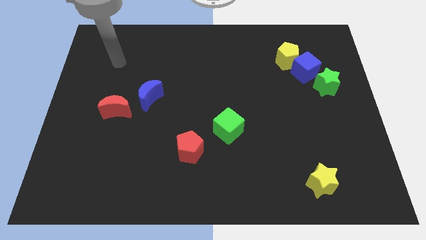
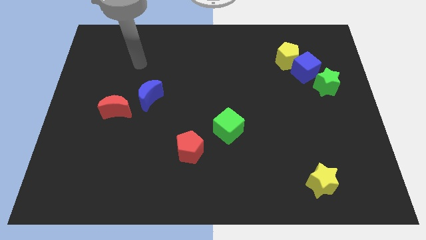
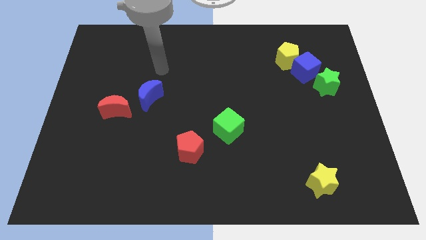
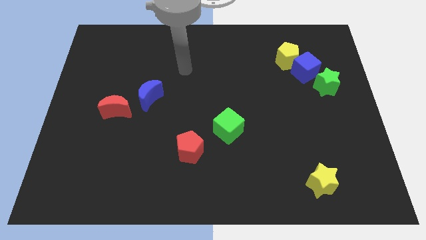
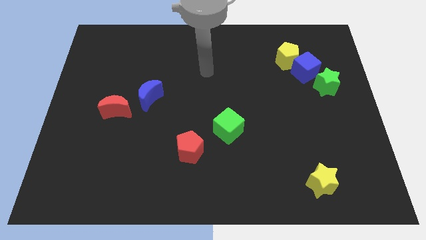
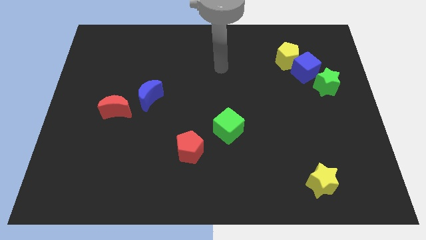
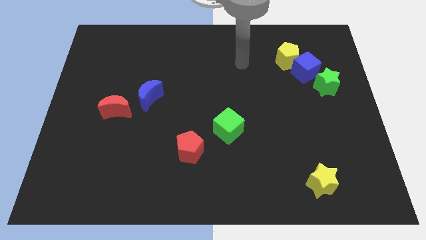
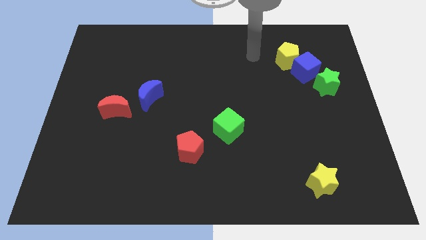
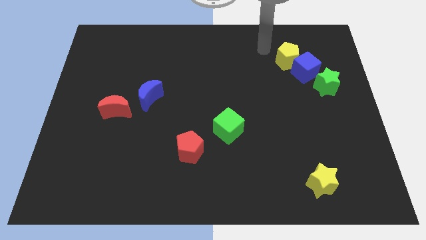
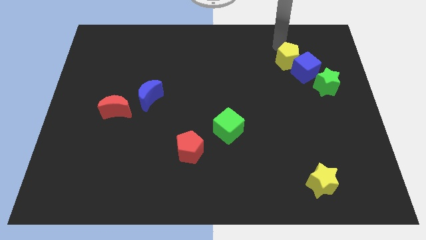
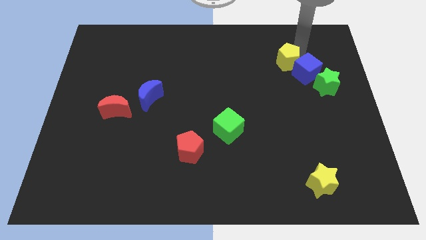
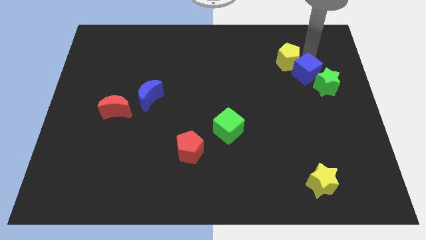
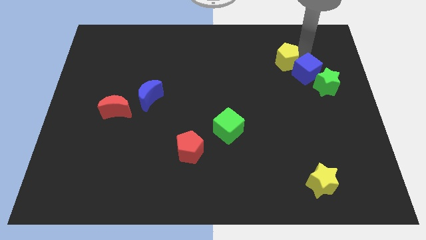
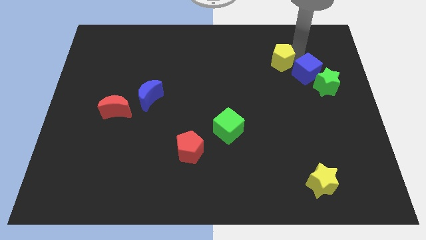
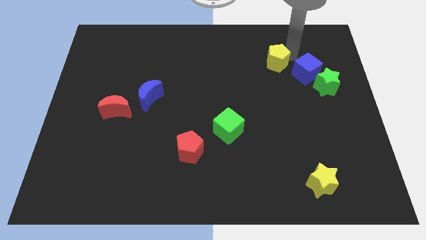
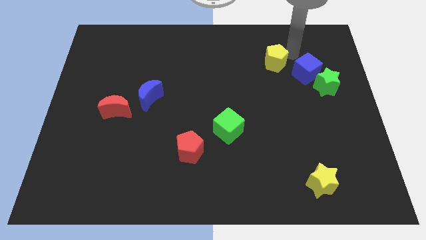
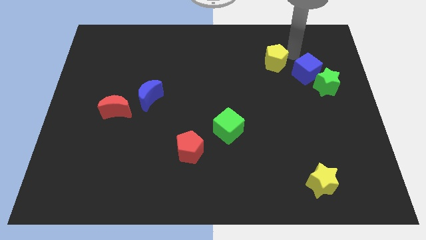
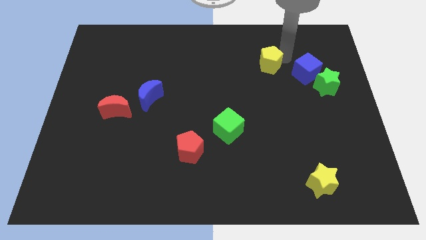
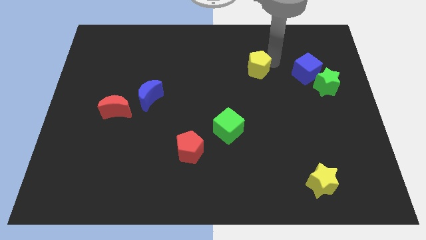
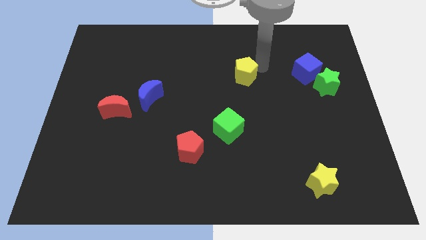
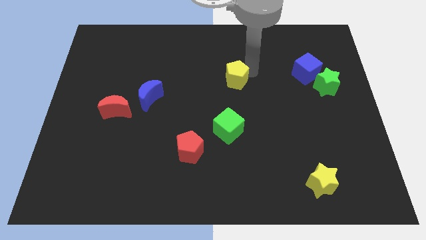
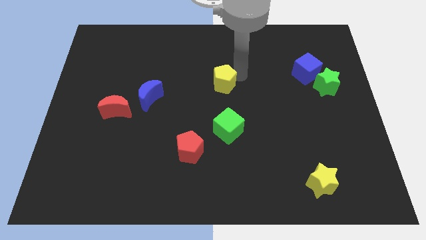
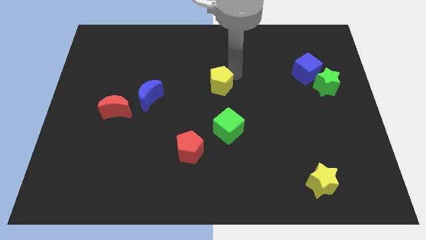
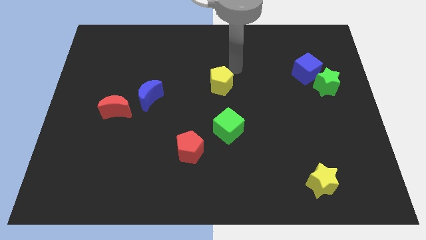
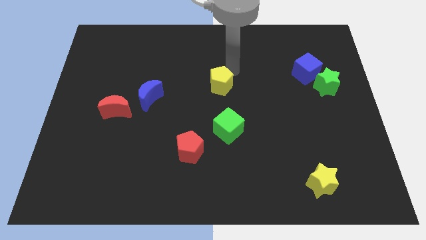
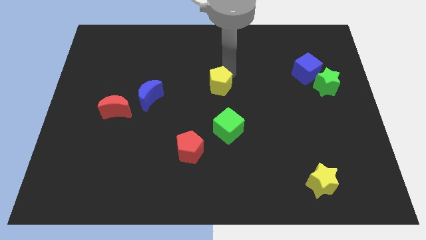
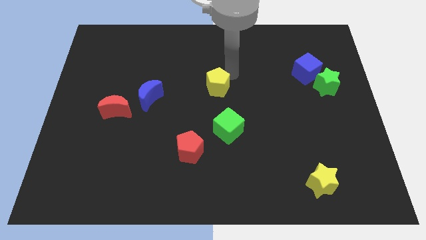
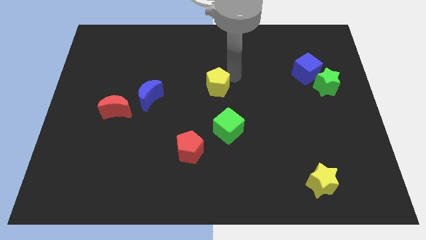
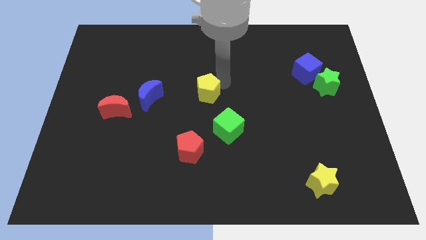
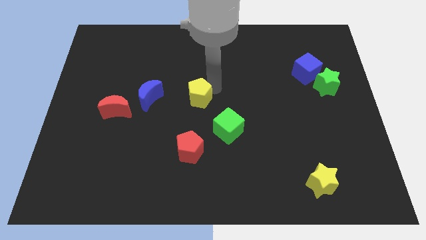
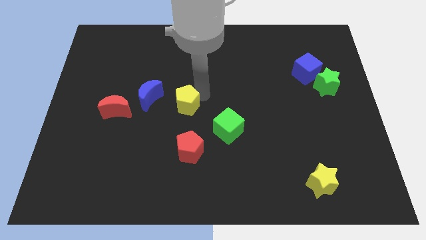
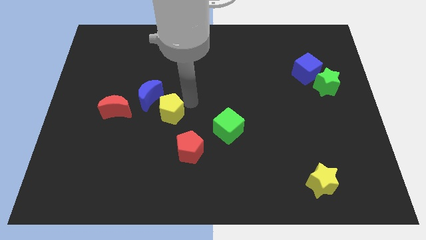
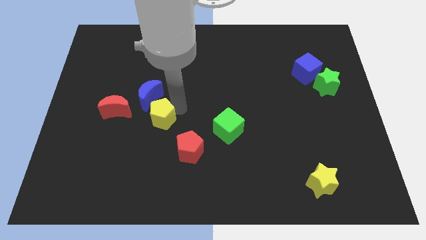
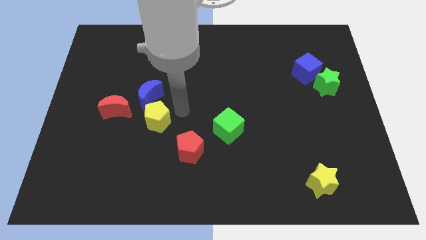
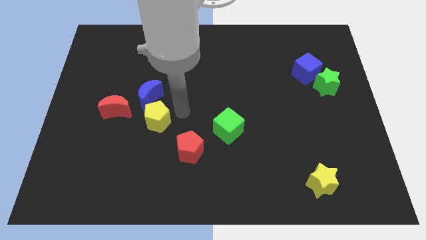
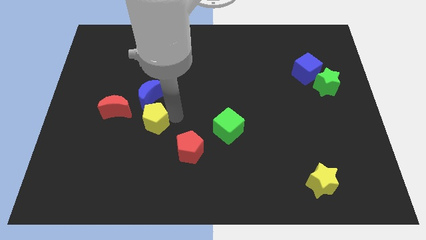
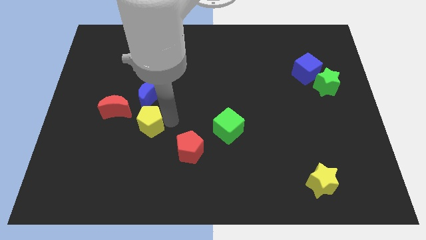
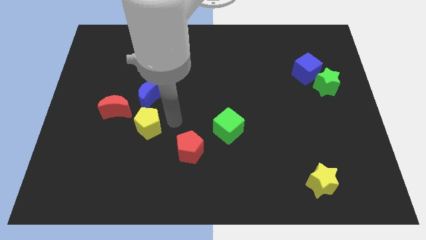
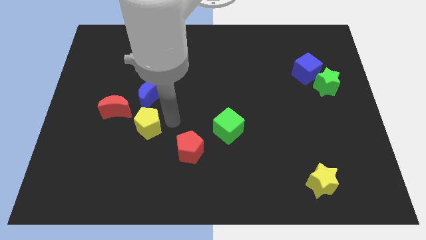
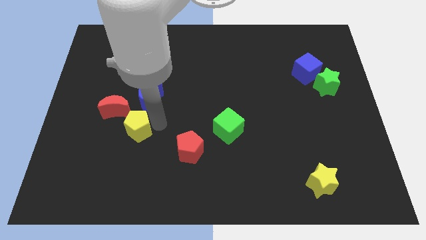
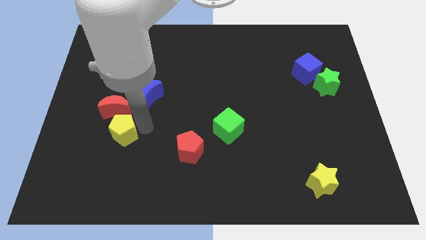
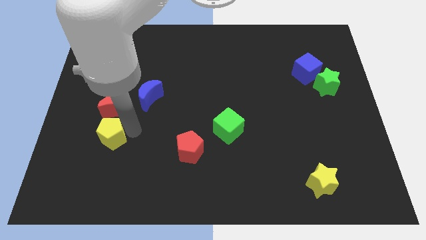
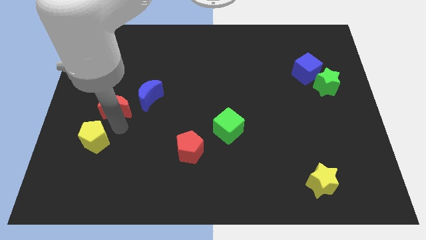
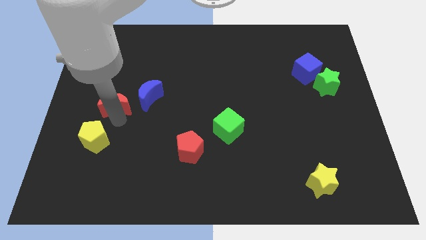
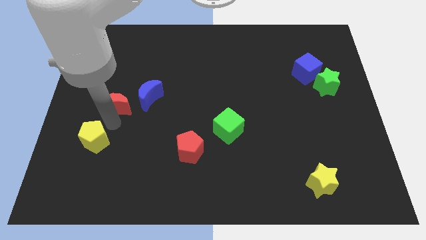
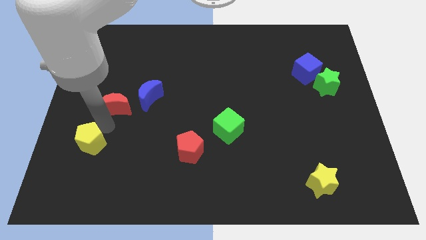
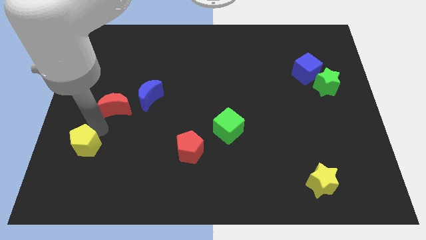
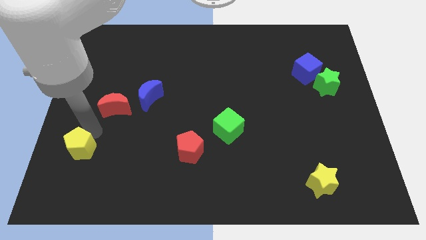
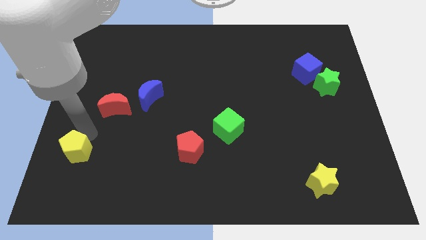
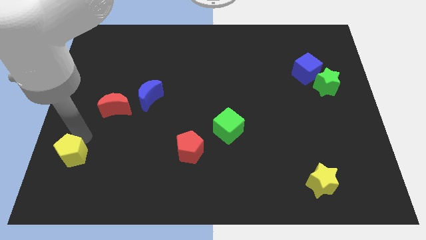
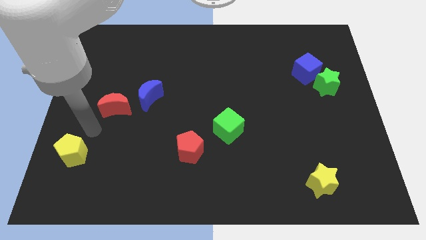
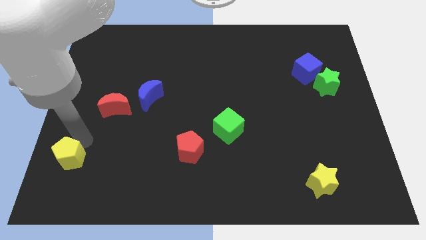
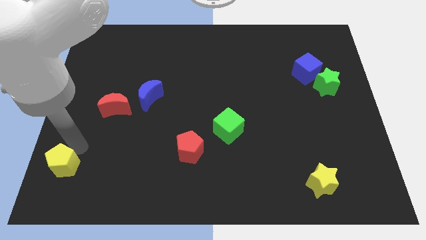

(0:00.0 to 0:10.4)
slide the yellow pentagon to the bottom left corner

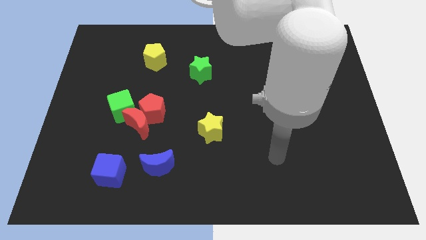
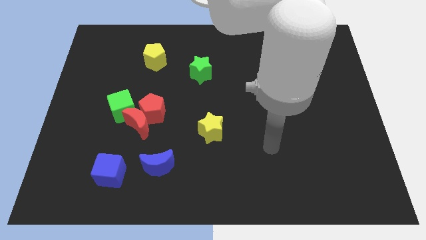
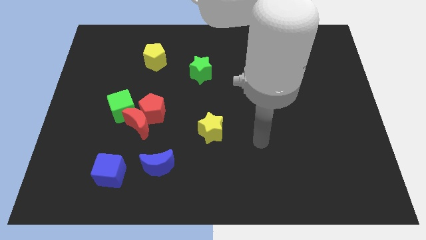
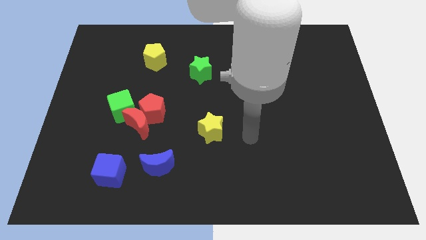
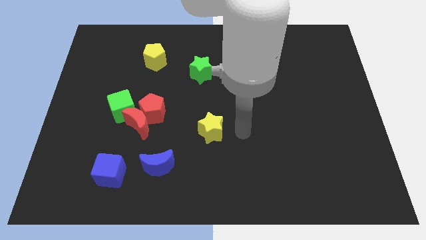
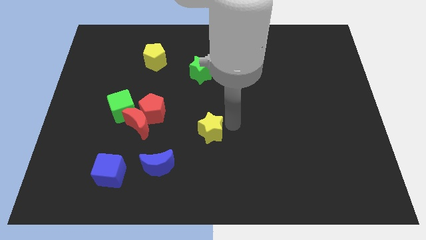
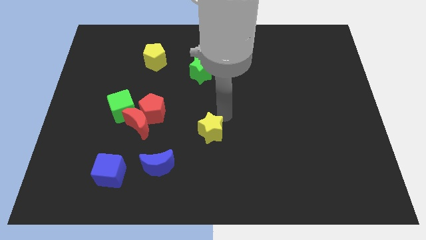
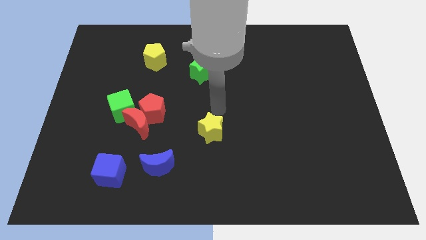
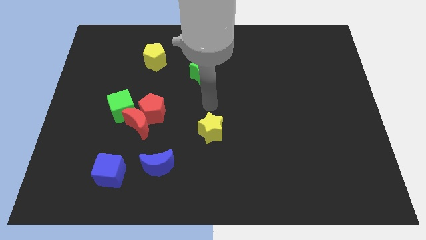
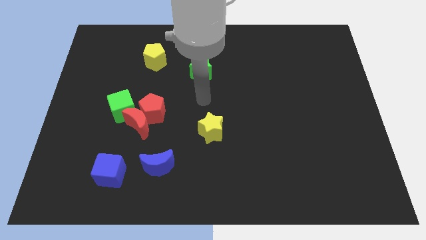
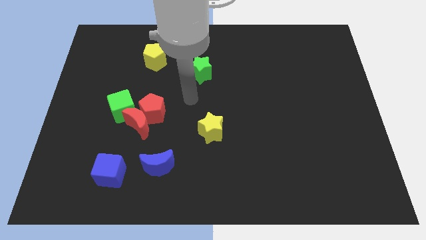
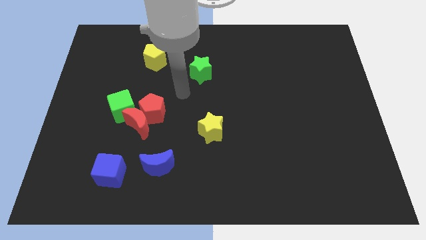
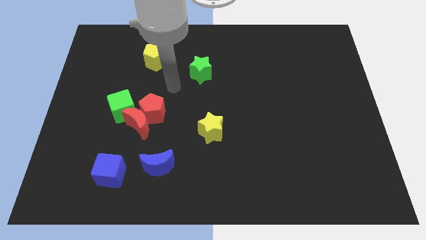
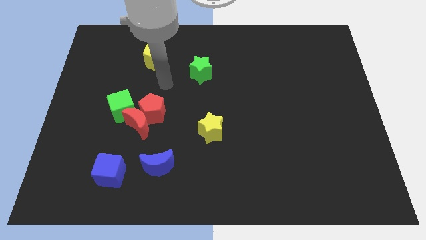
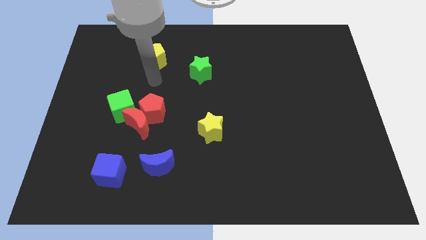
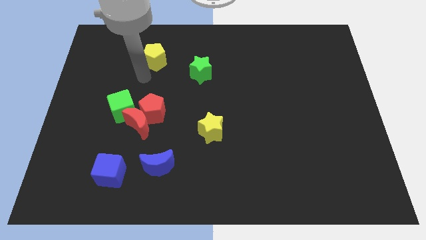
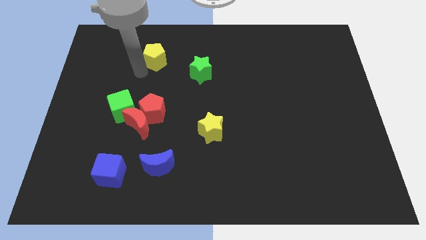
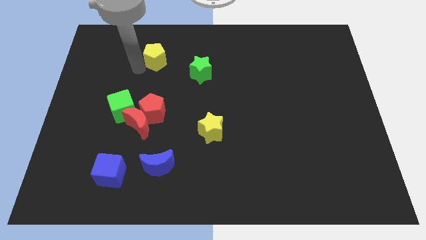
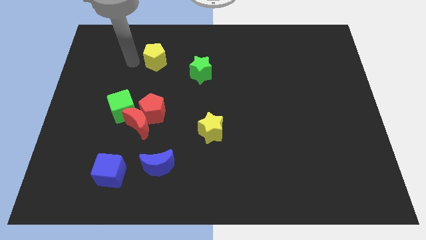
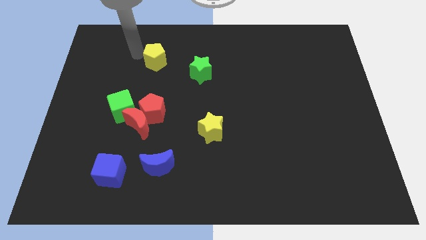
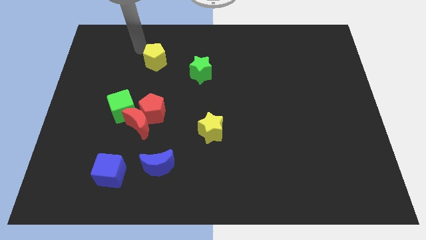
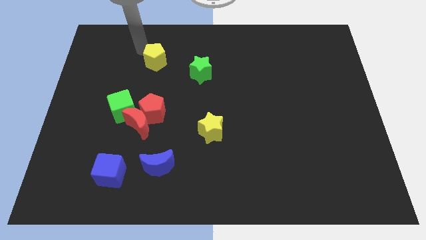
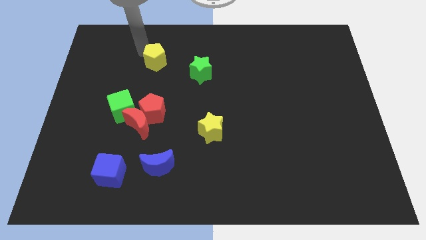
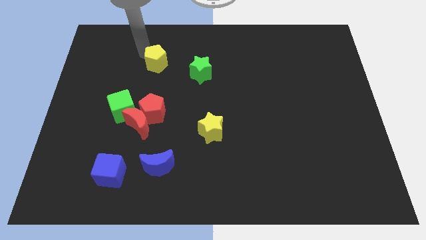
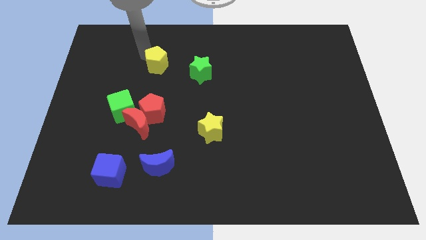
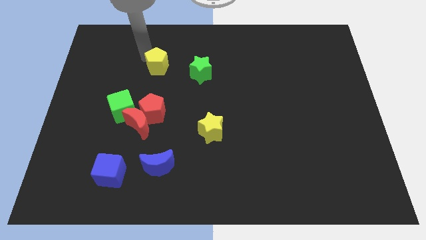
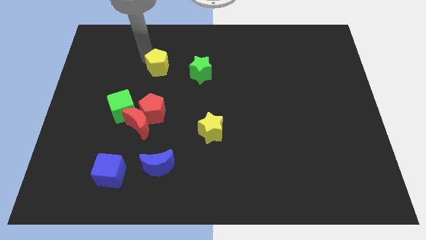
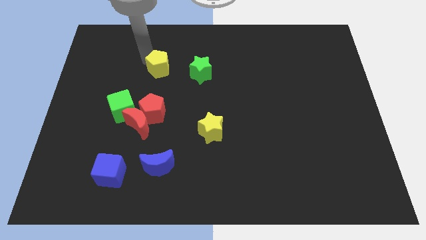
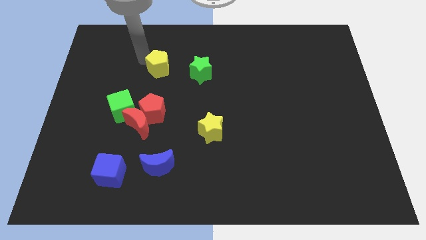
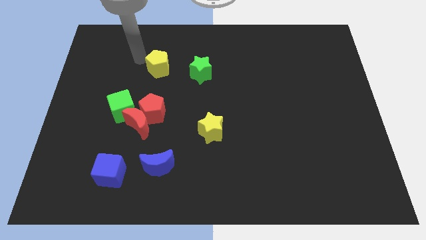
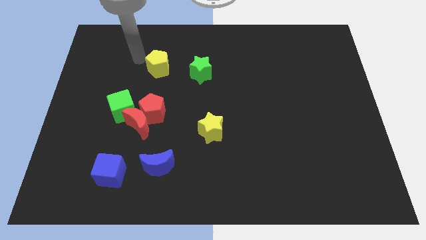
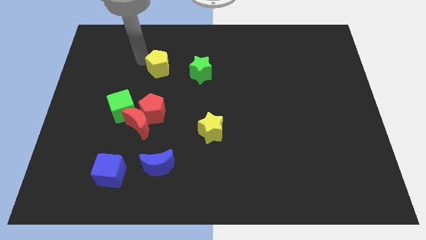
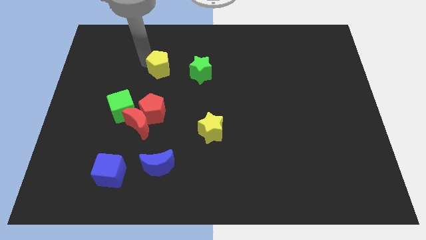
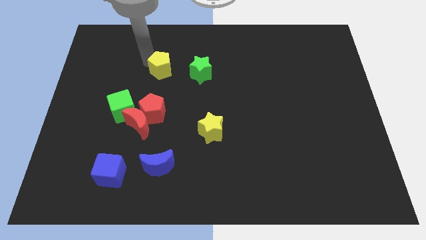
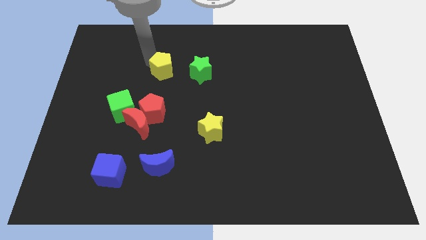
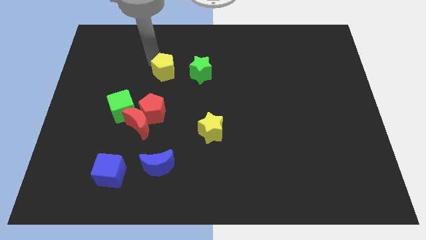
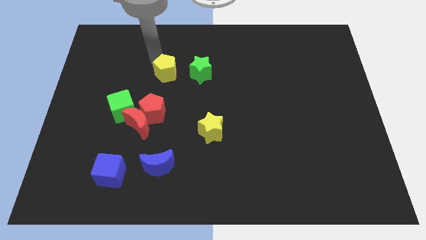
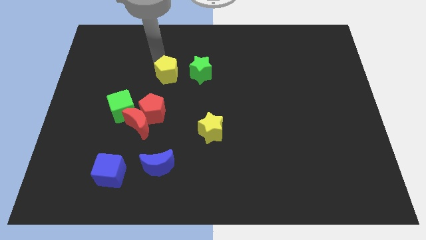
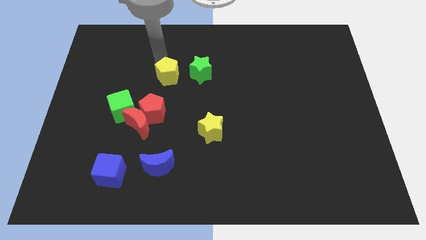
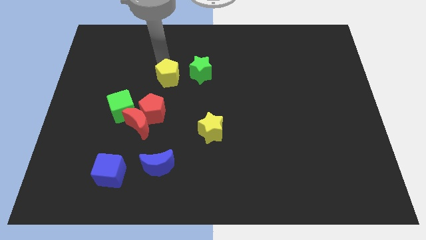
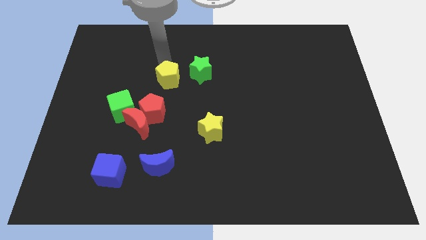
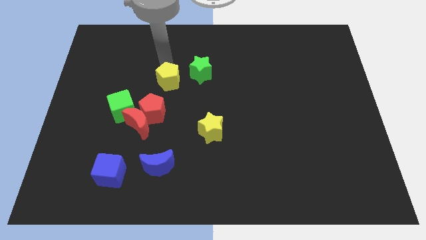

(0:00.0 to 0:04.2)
move the yellow pentagon to the middle
